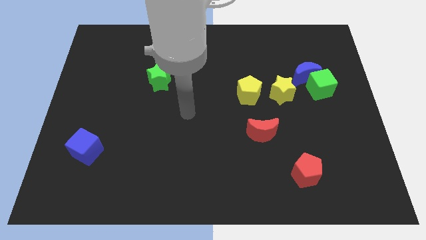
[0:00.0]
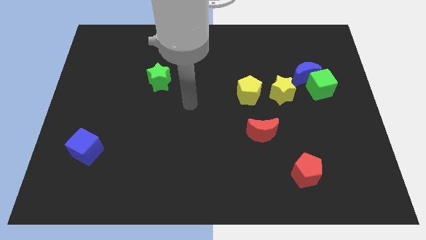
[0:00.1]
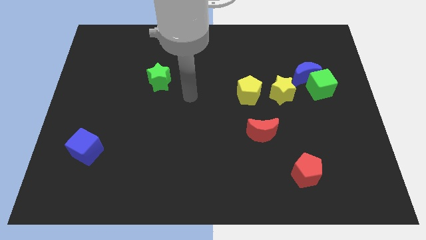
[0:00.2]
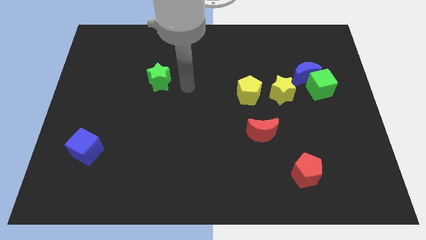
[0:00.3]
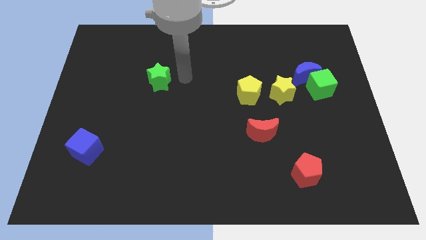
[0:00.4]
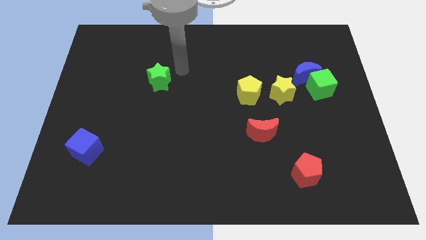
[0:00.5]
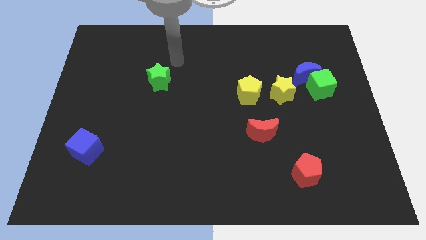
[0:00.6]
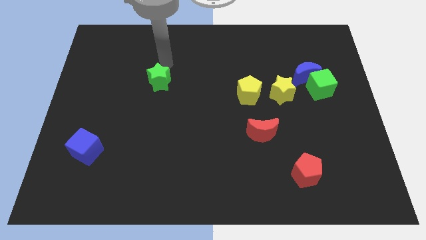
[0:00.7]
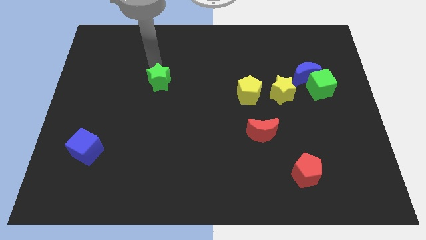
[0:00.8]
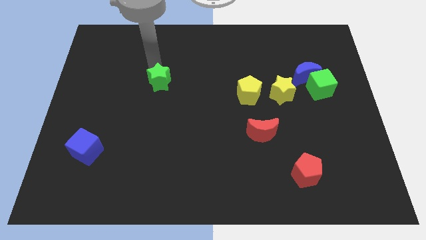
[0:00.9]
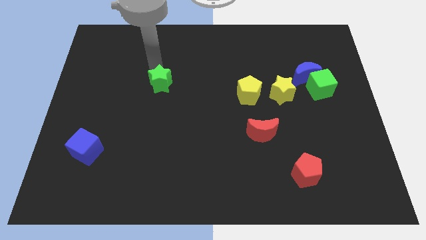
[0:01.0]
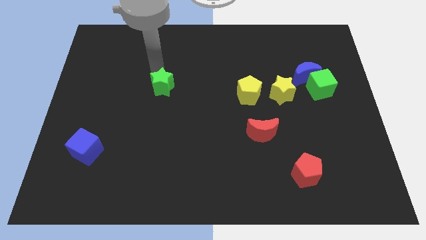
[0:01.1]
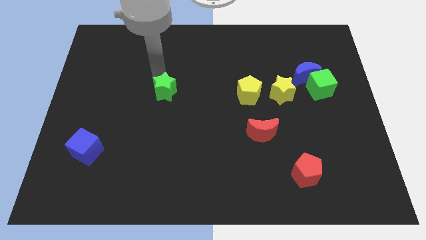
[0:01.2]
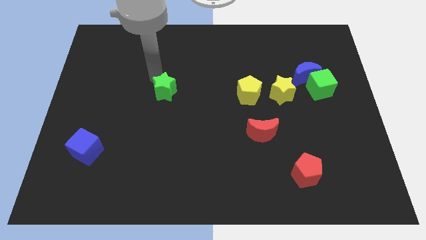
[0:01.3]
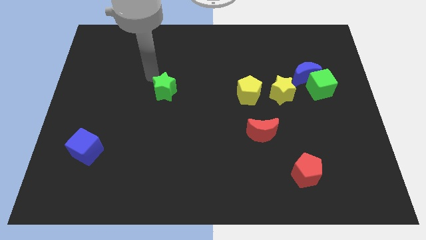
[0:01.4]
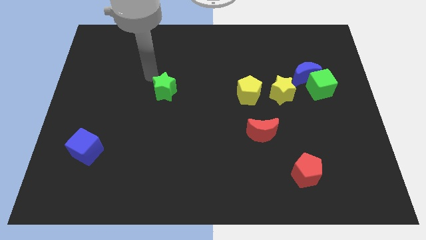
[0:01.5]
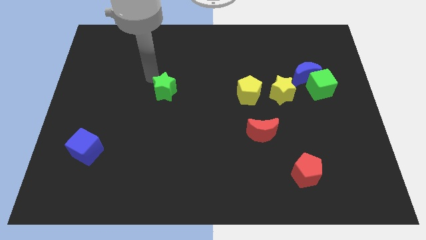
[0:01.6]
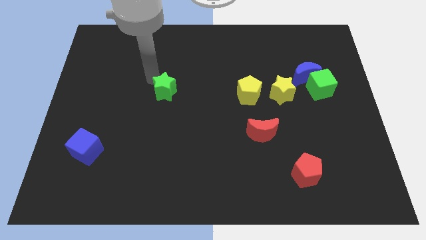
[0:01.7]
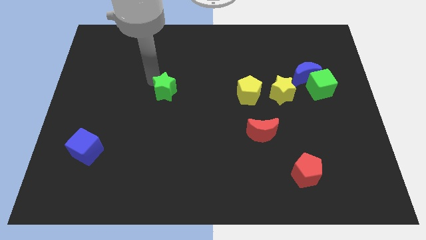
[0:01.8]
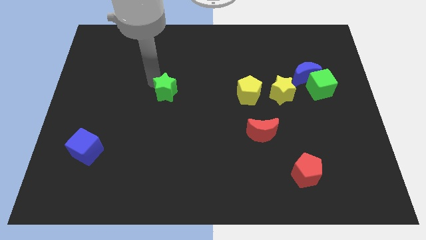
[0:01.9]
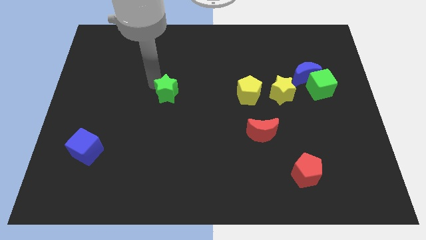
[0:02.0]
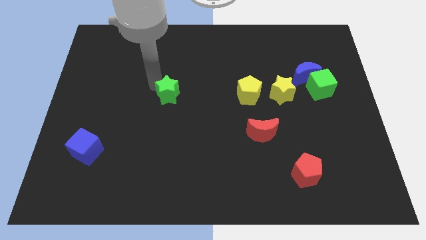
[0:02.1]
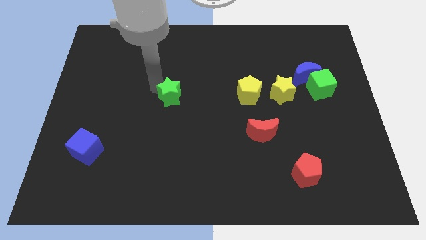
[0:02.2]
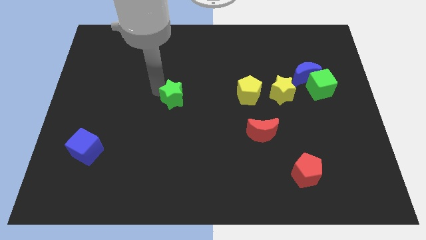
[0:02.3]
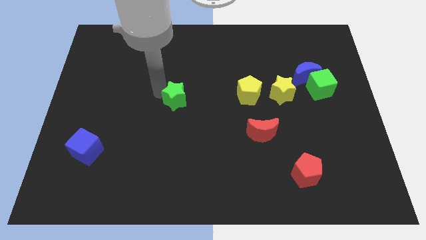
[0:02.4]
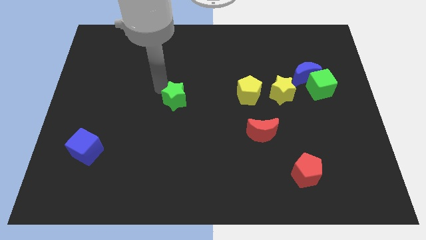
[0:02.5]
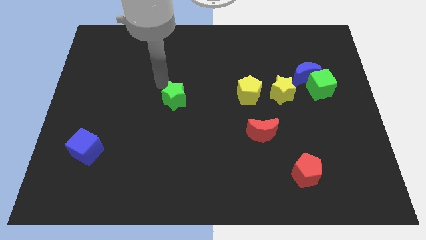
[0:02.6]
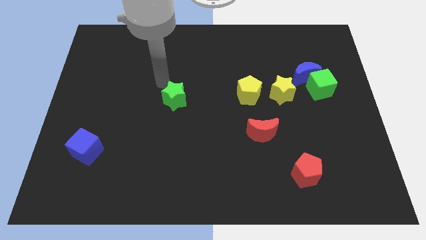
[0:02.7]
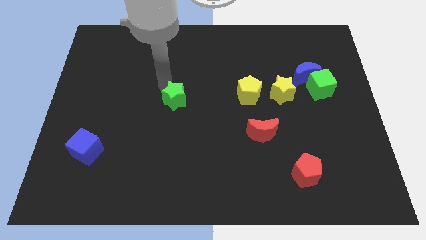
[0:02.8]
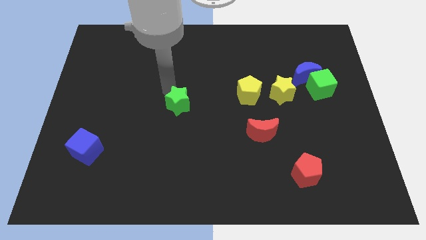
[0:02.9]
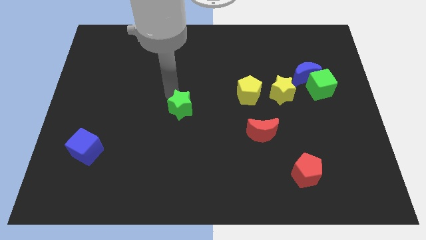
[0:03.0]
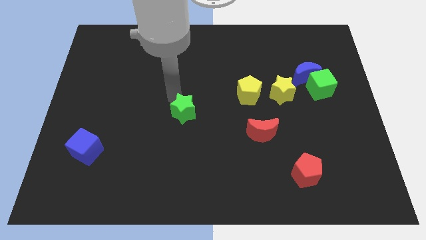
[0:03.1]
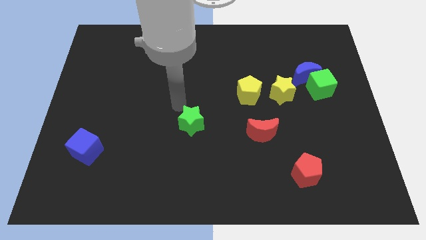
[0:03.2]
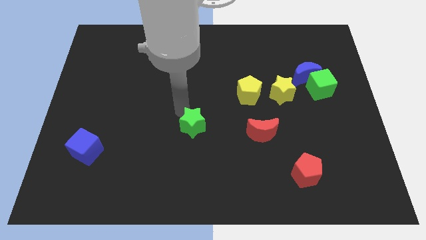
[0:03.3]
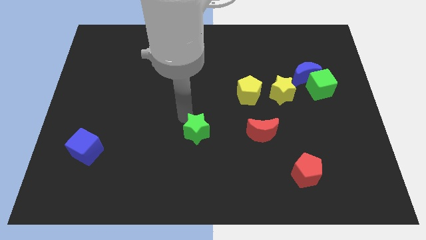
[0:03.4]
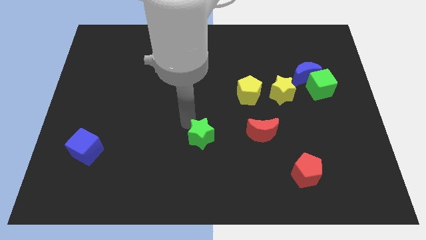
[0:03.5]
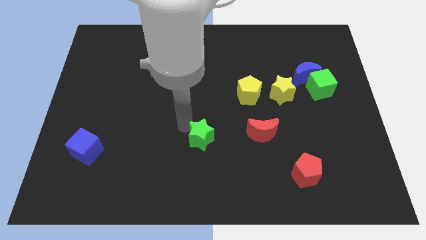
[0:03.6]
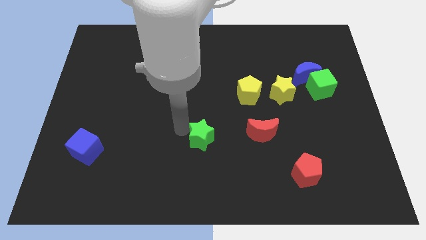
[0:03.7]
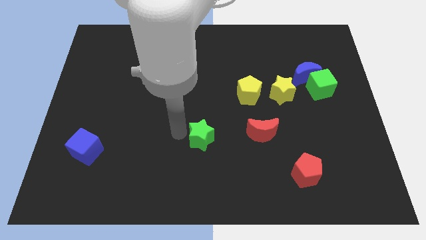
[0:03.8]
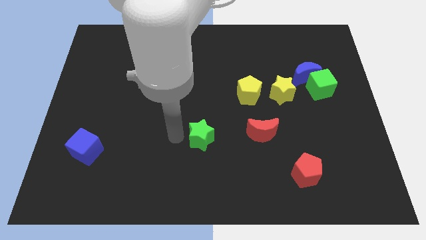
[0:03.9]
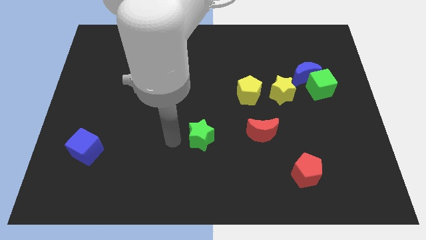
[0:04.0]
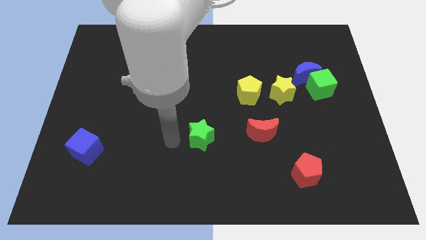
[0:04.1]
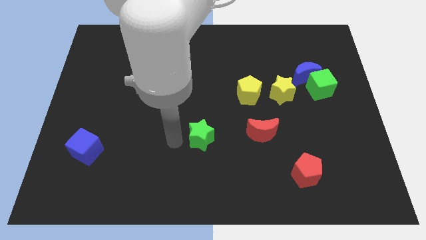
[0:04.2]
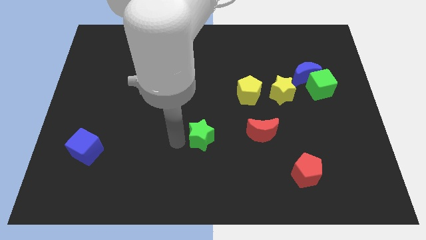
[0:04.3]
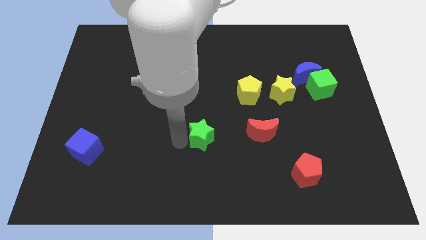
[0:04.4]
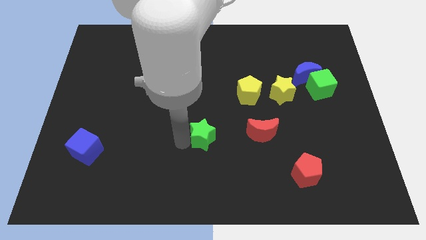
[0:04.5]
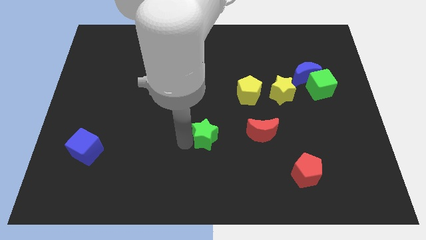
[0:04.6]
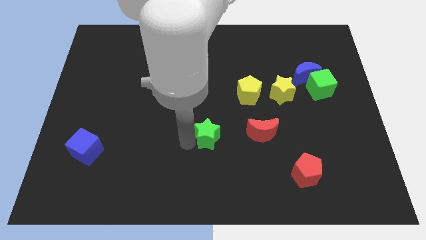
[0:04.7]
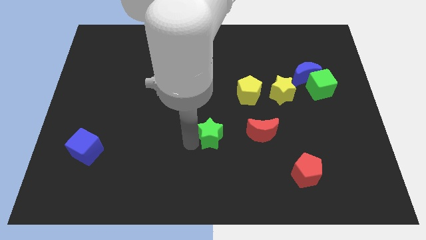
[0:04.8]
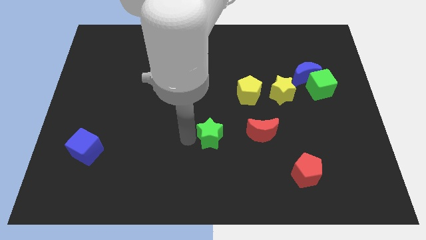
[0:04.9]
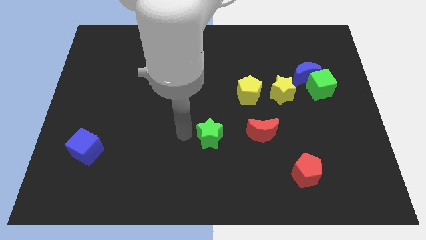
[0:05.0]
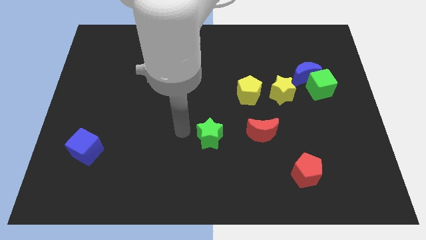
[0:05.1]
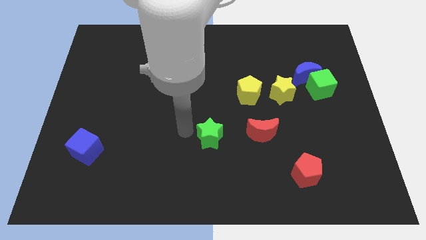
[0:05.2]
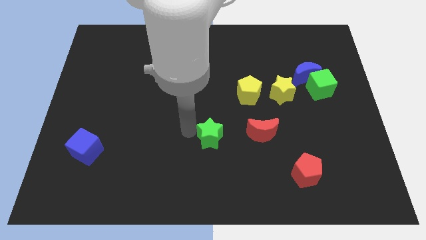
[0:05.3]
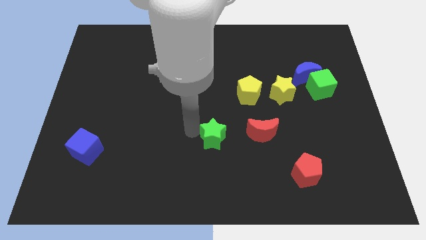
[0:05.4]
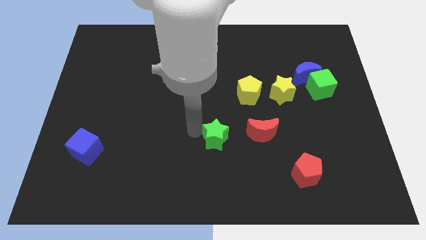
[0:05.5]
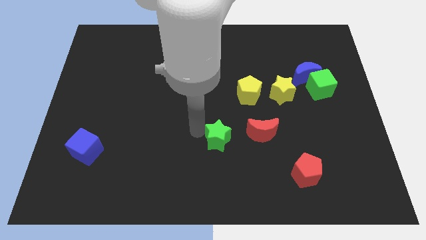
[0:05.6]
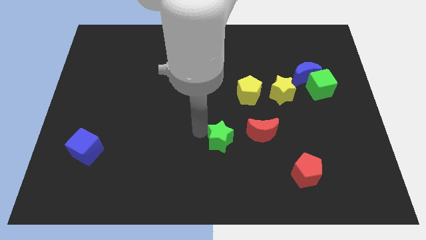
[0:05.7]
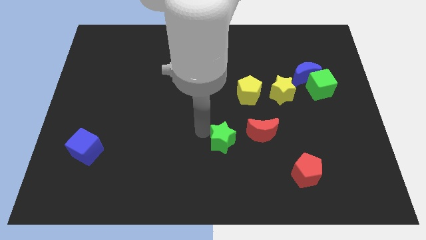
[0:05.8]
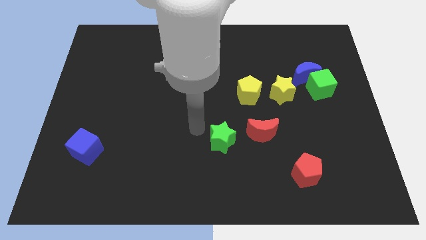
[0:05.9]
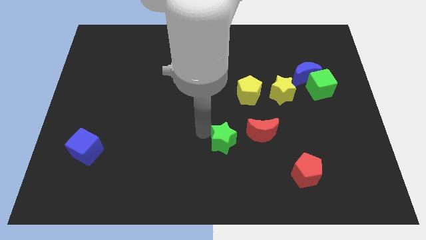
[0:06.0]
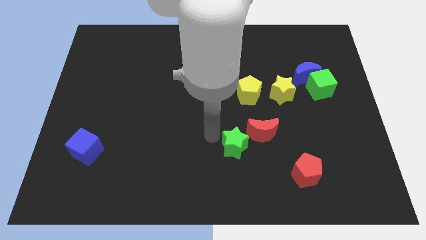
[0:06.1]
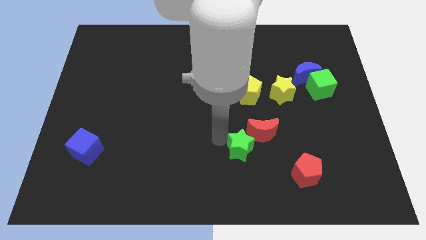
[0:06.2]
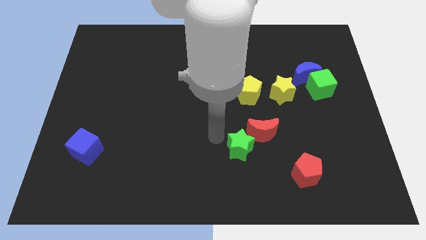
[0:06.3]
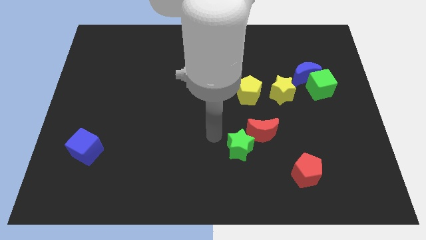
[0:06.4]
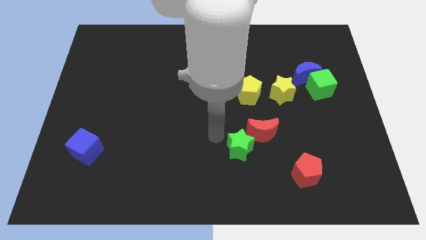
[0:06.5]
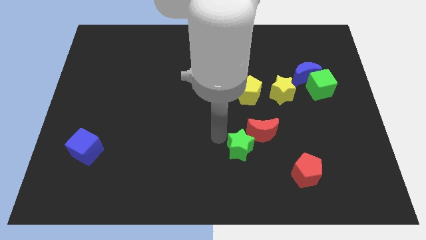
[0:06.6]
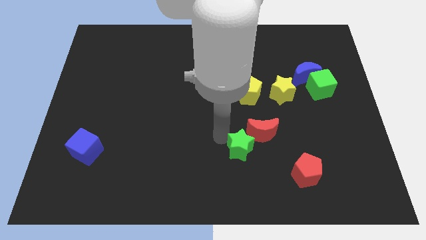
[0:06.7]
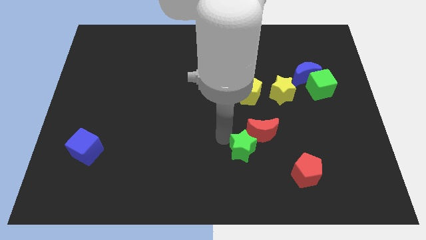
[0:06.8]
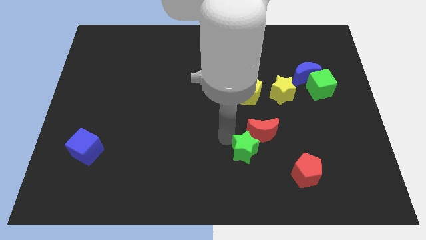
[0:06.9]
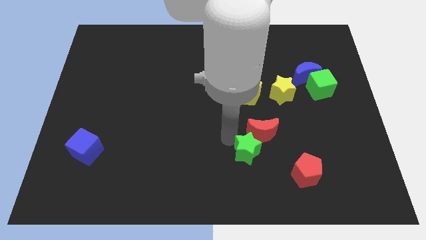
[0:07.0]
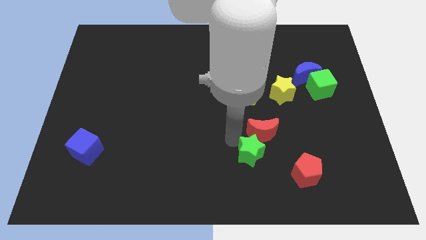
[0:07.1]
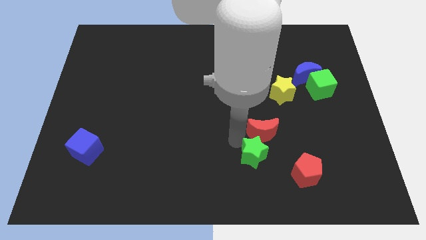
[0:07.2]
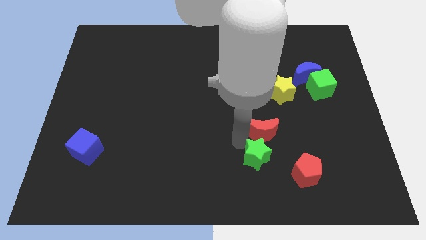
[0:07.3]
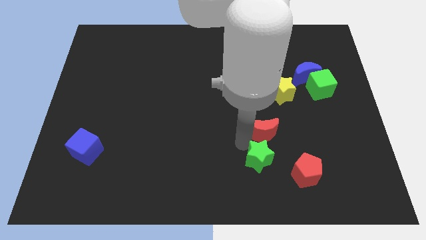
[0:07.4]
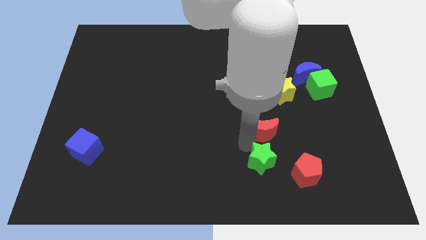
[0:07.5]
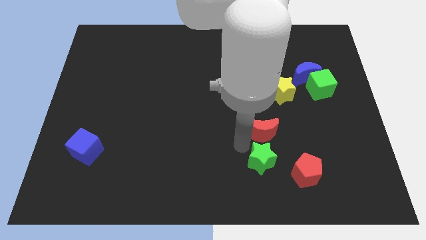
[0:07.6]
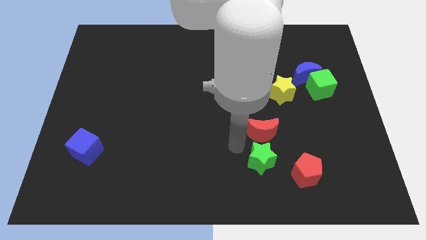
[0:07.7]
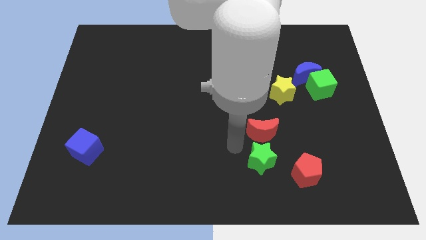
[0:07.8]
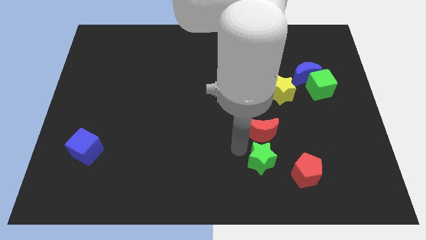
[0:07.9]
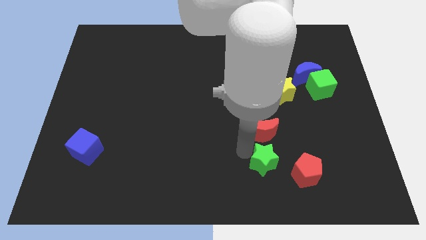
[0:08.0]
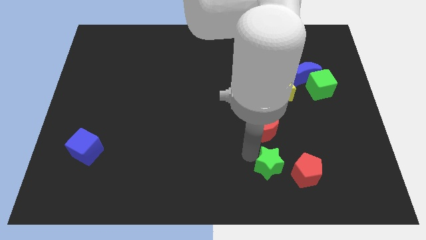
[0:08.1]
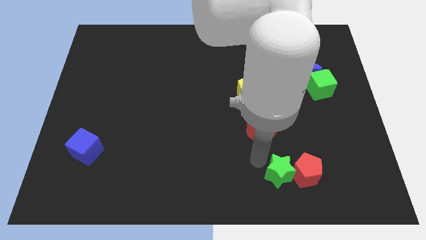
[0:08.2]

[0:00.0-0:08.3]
move the green star to the red pentagon
